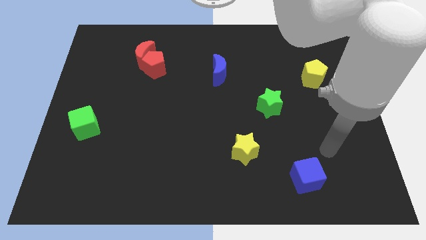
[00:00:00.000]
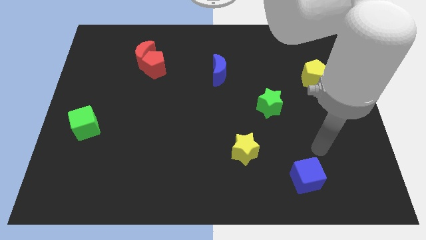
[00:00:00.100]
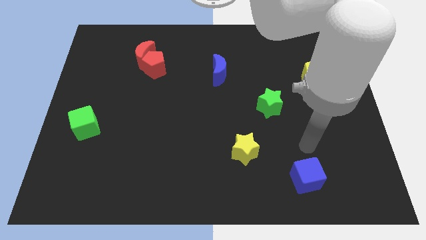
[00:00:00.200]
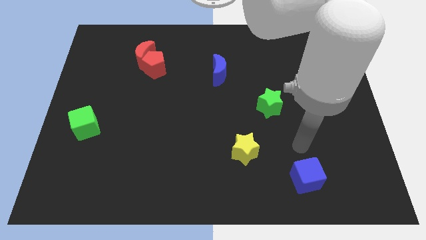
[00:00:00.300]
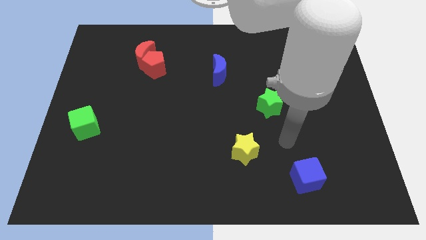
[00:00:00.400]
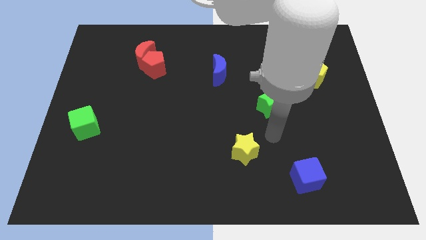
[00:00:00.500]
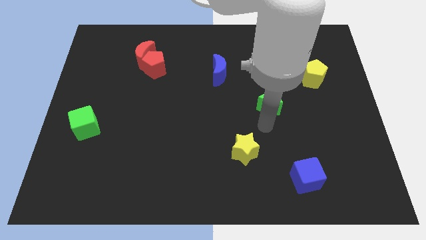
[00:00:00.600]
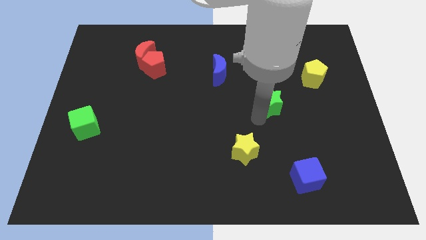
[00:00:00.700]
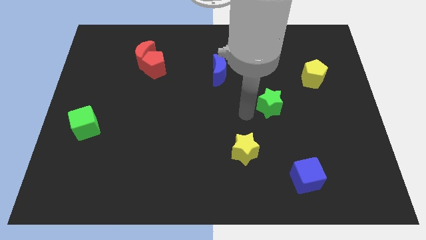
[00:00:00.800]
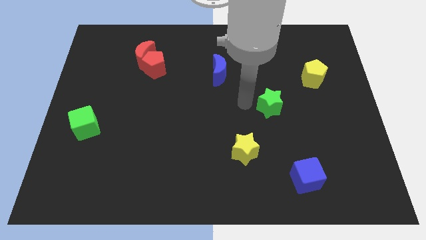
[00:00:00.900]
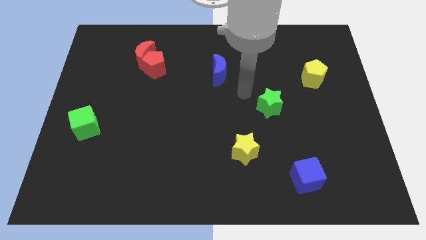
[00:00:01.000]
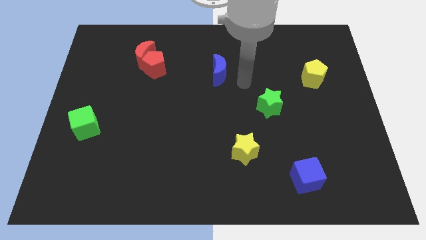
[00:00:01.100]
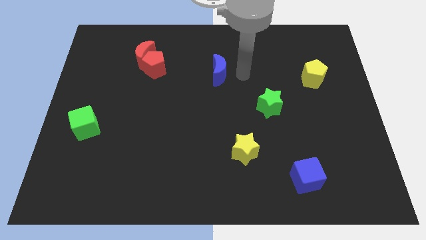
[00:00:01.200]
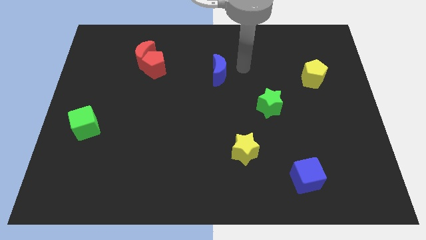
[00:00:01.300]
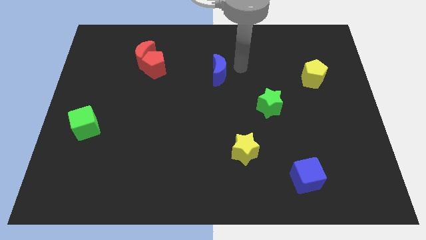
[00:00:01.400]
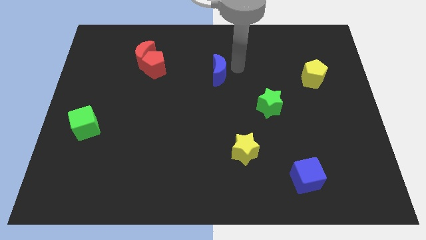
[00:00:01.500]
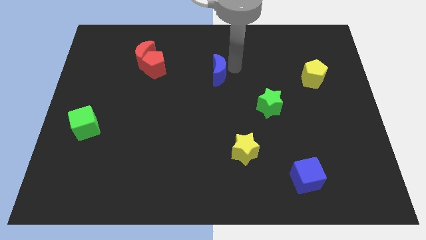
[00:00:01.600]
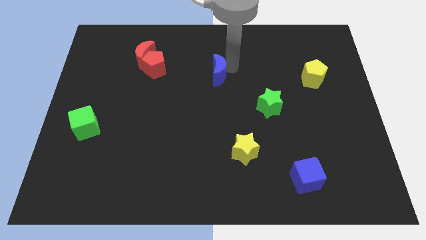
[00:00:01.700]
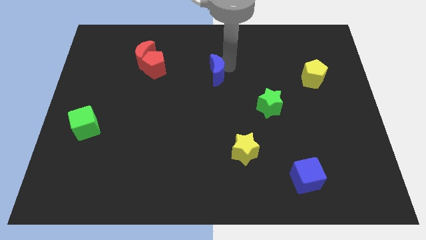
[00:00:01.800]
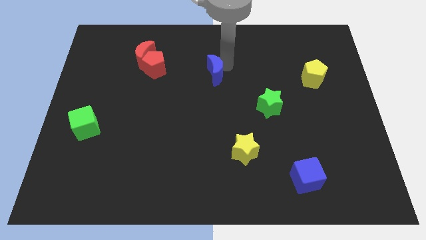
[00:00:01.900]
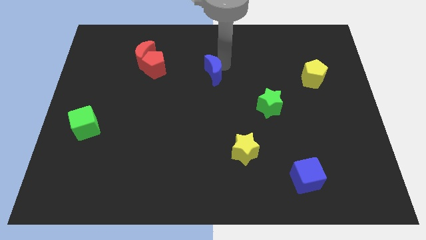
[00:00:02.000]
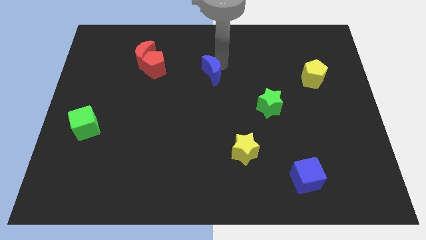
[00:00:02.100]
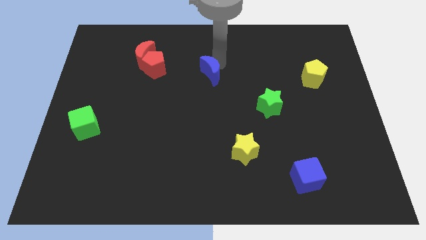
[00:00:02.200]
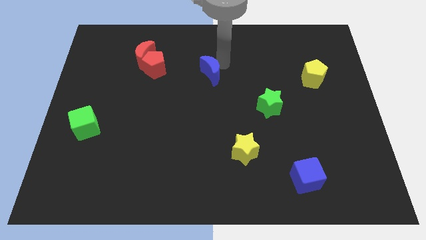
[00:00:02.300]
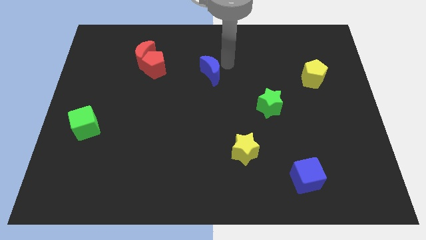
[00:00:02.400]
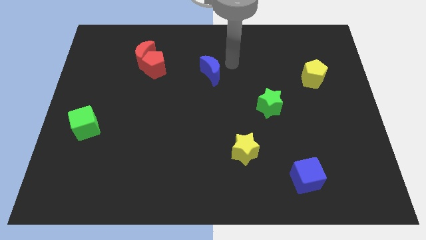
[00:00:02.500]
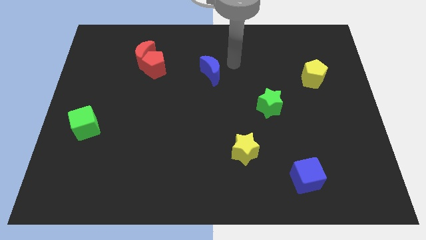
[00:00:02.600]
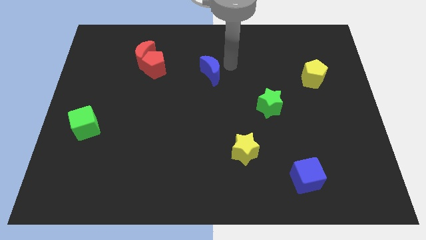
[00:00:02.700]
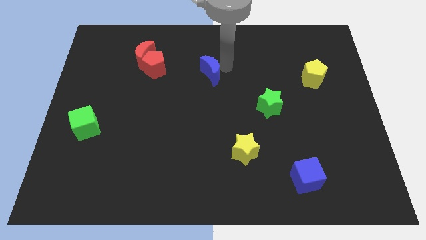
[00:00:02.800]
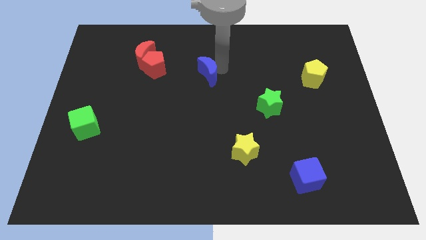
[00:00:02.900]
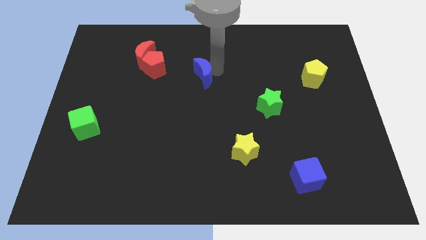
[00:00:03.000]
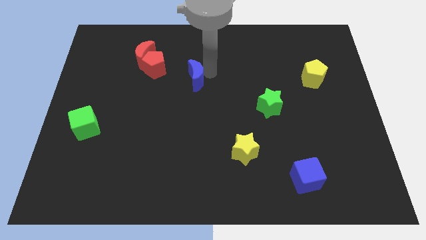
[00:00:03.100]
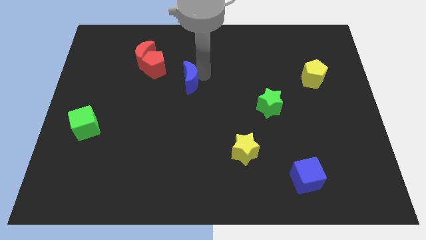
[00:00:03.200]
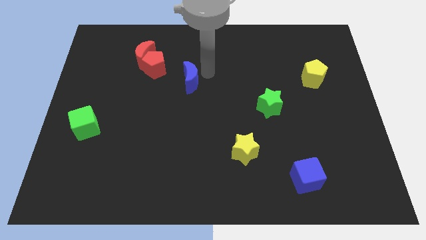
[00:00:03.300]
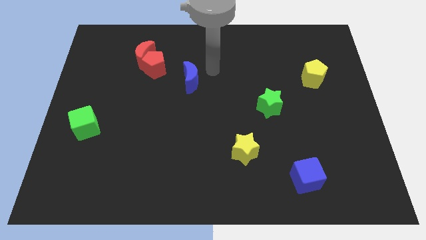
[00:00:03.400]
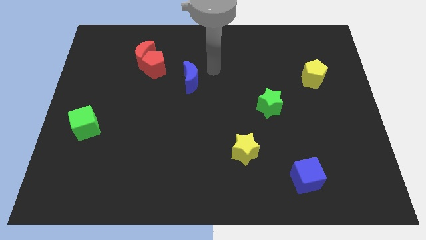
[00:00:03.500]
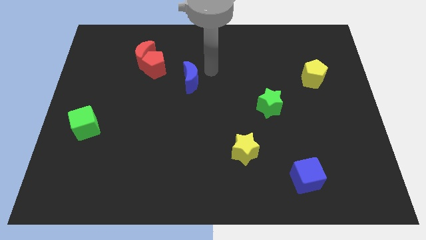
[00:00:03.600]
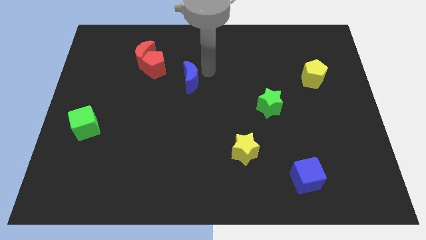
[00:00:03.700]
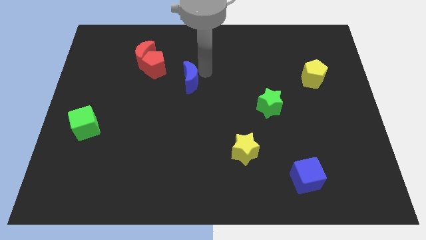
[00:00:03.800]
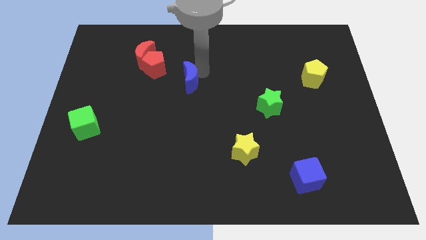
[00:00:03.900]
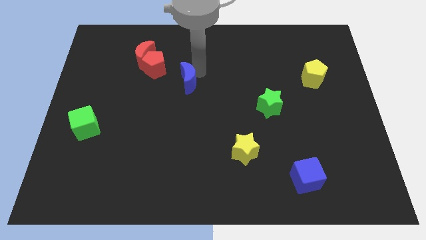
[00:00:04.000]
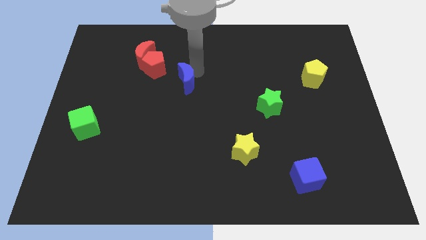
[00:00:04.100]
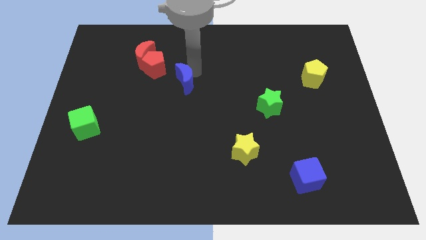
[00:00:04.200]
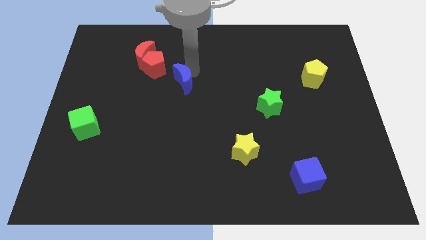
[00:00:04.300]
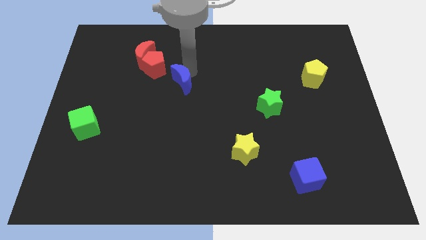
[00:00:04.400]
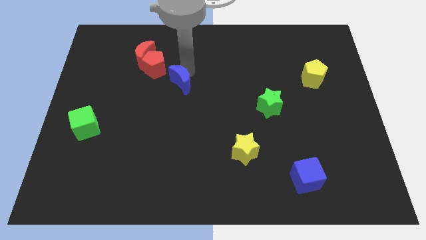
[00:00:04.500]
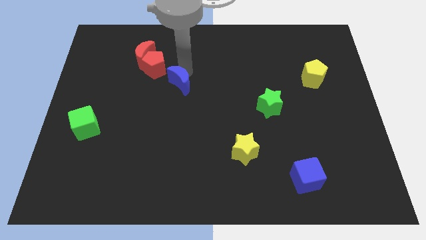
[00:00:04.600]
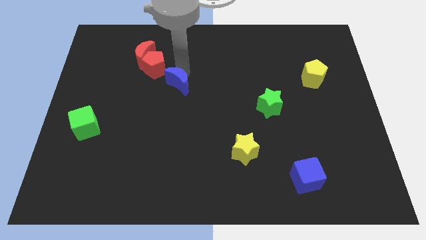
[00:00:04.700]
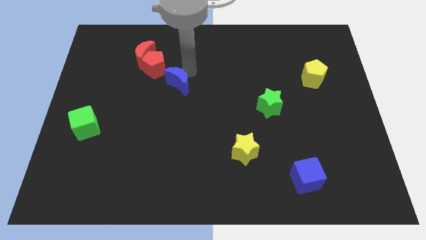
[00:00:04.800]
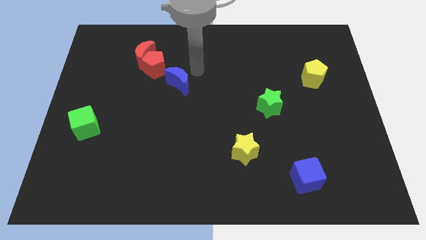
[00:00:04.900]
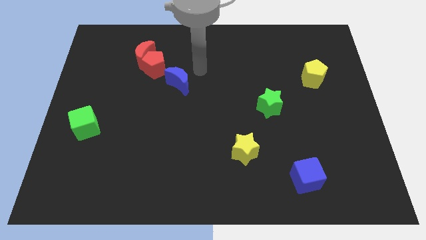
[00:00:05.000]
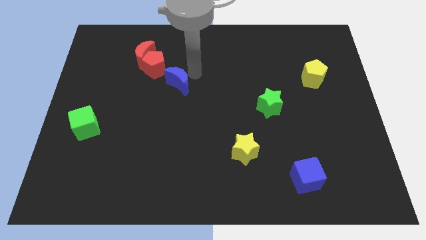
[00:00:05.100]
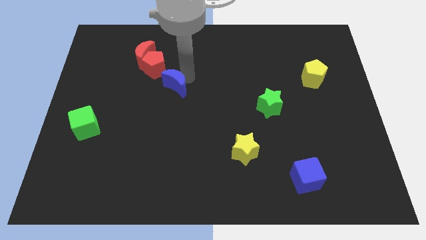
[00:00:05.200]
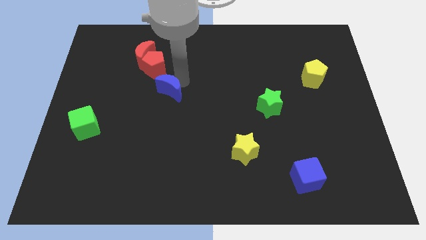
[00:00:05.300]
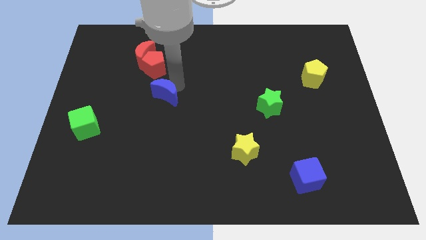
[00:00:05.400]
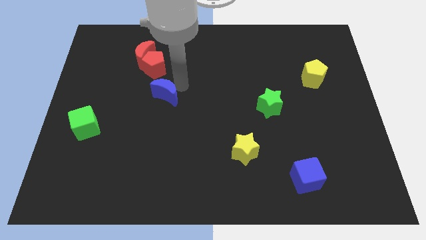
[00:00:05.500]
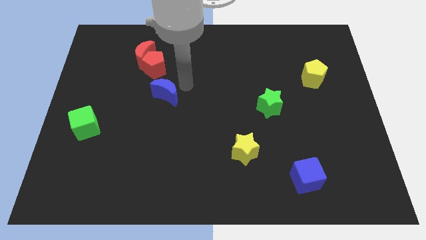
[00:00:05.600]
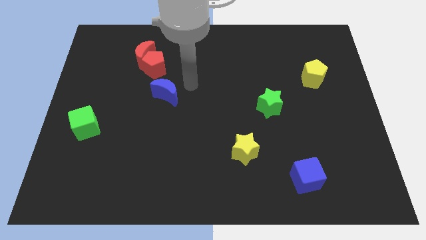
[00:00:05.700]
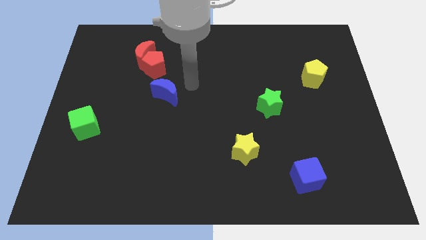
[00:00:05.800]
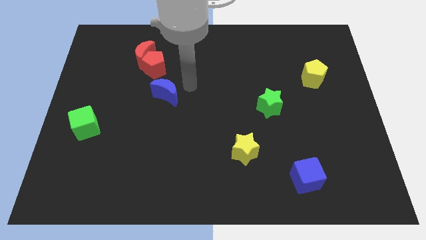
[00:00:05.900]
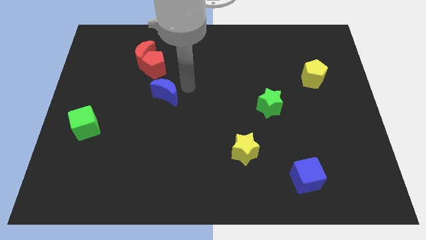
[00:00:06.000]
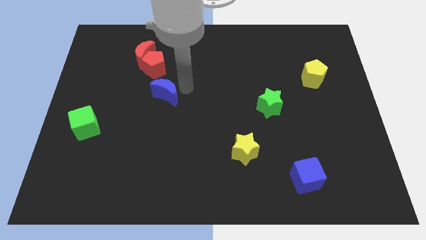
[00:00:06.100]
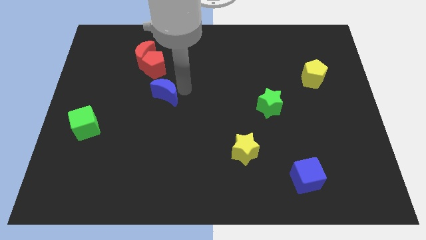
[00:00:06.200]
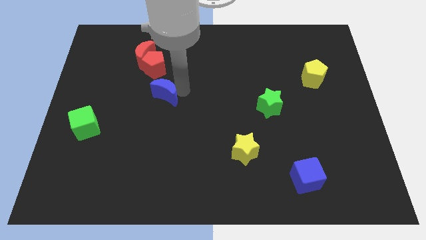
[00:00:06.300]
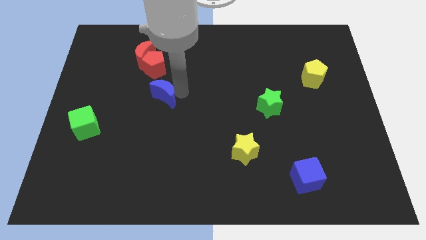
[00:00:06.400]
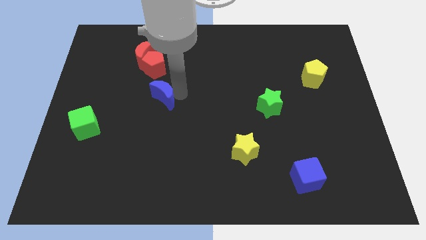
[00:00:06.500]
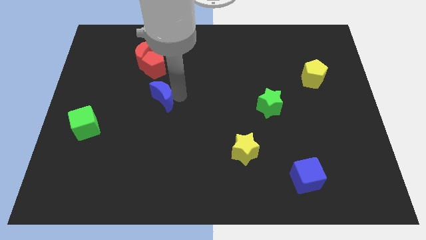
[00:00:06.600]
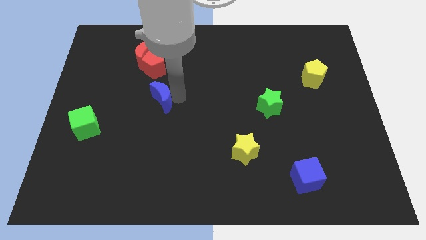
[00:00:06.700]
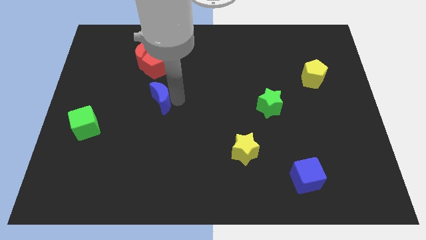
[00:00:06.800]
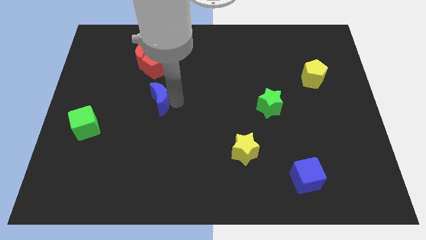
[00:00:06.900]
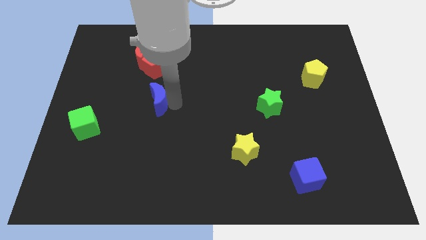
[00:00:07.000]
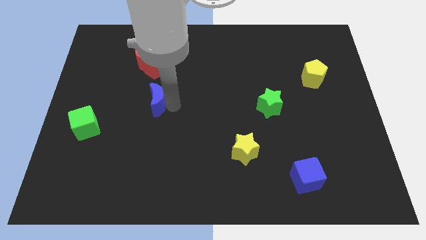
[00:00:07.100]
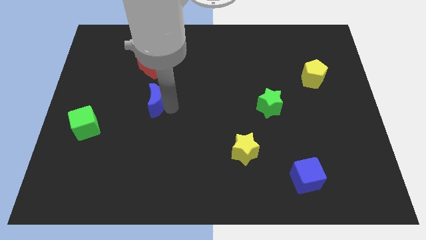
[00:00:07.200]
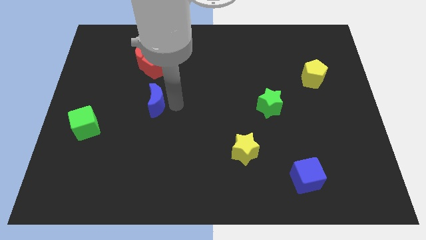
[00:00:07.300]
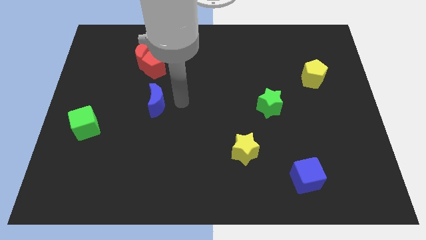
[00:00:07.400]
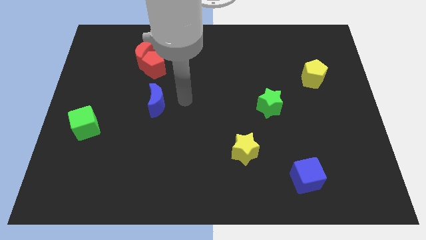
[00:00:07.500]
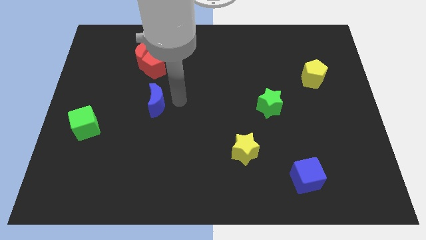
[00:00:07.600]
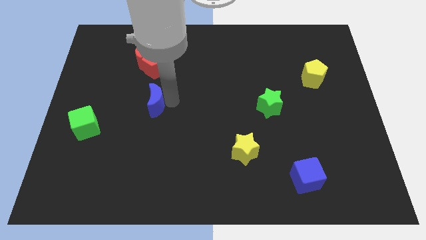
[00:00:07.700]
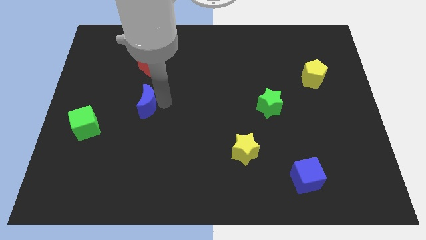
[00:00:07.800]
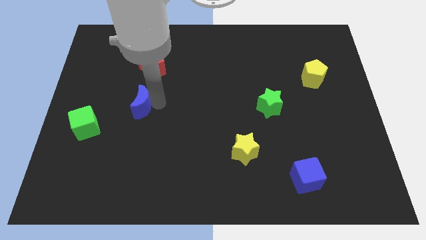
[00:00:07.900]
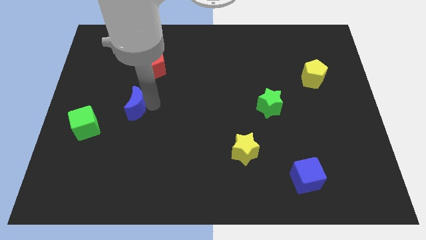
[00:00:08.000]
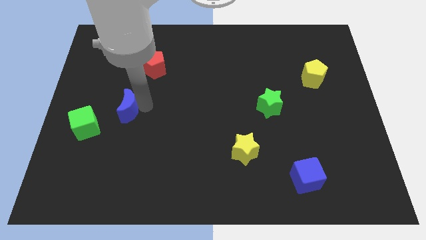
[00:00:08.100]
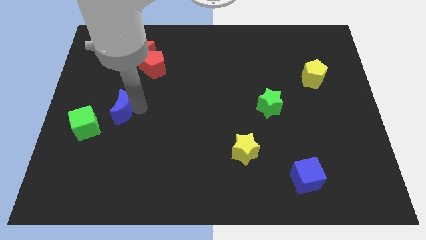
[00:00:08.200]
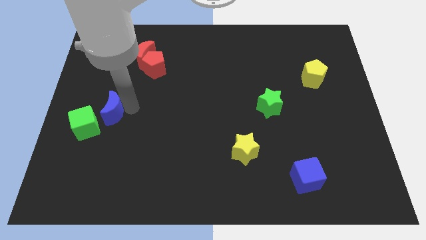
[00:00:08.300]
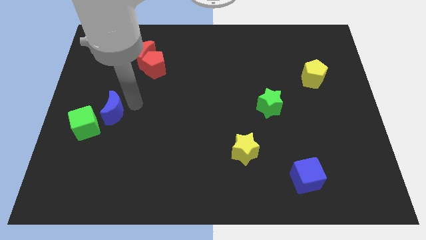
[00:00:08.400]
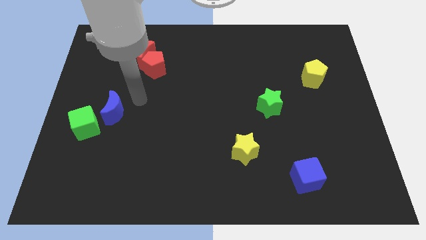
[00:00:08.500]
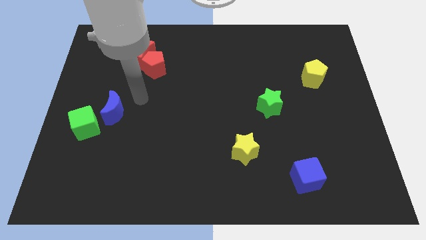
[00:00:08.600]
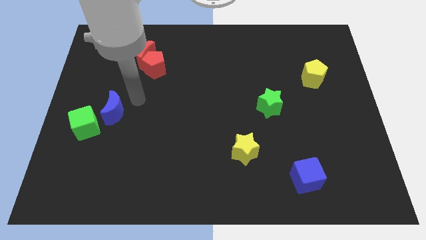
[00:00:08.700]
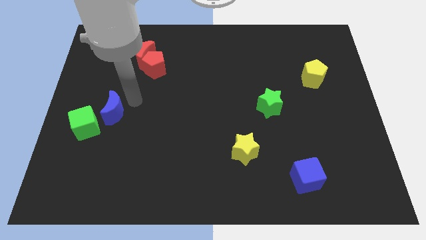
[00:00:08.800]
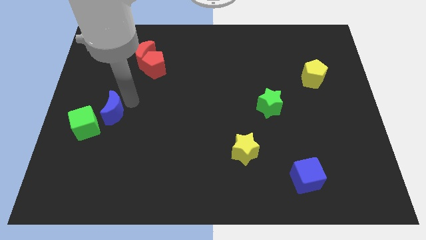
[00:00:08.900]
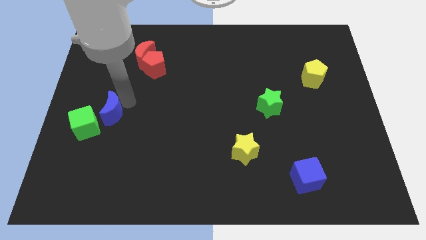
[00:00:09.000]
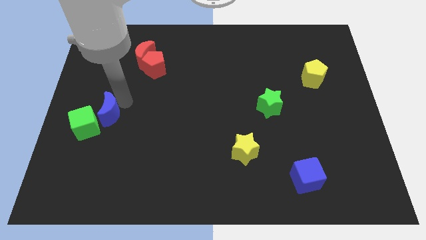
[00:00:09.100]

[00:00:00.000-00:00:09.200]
push the blue moon to the green cube
